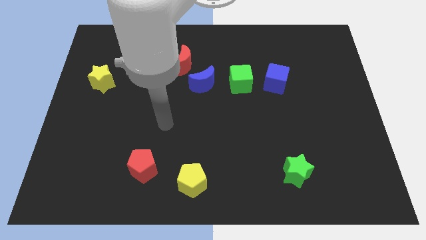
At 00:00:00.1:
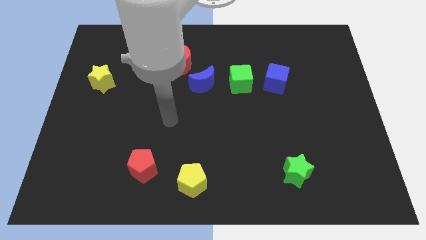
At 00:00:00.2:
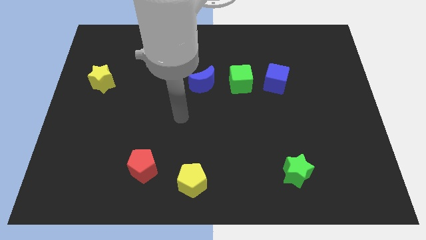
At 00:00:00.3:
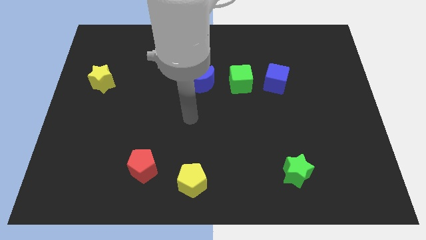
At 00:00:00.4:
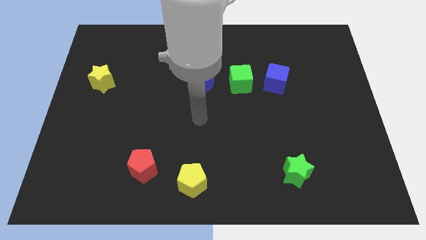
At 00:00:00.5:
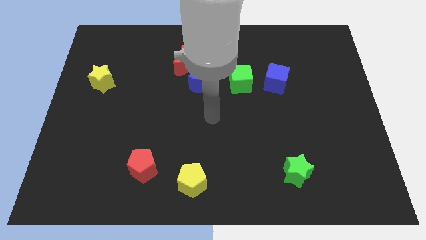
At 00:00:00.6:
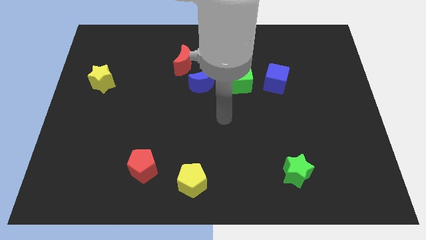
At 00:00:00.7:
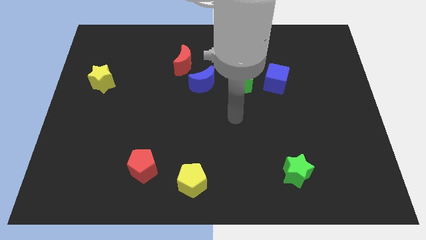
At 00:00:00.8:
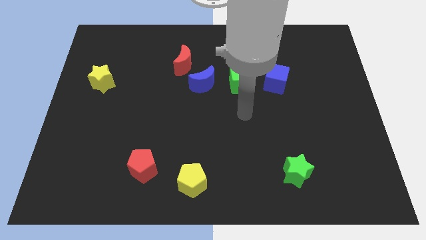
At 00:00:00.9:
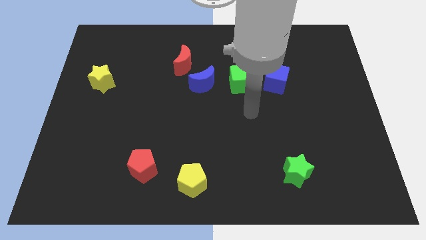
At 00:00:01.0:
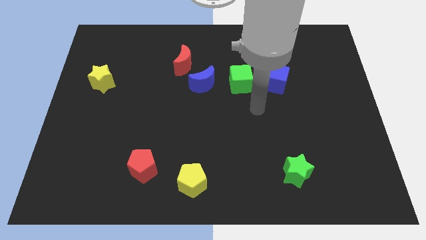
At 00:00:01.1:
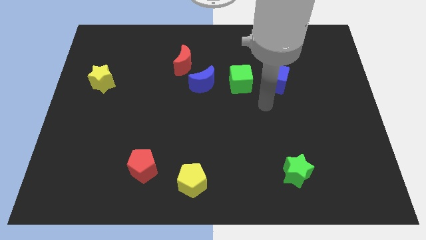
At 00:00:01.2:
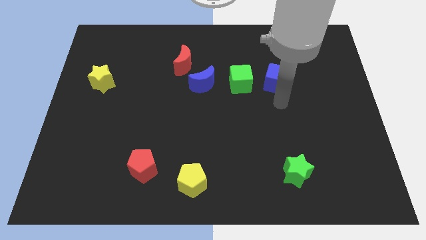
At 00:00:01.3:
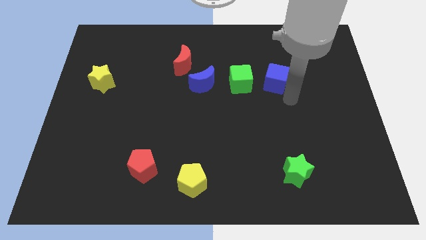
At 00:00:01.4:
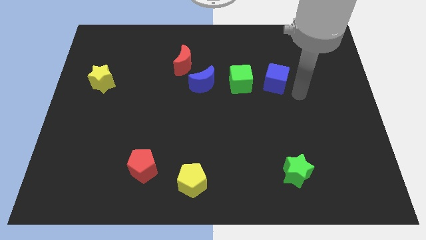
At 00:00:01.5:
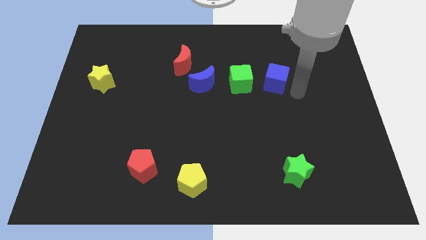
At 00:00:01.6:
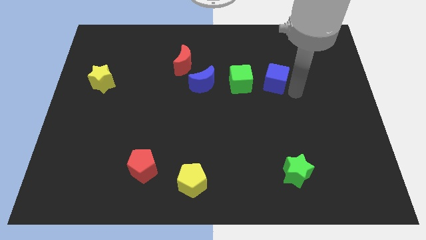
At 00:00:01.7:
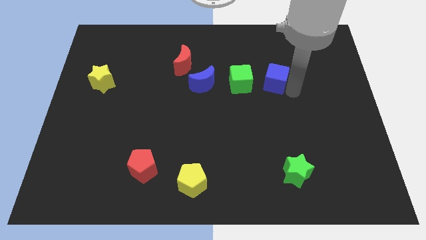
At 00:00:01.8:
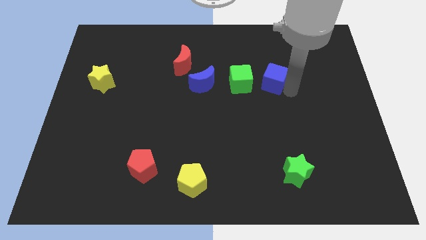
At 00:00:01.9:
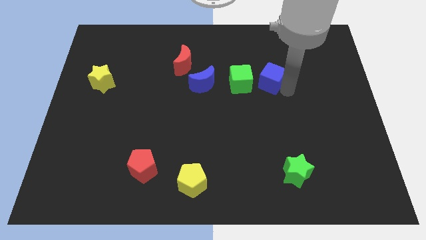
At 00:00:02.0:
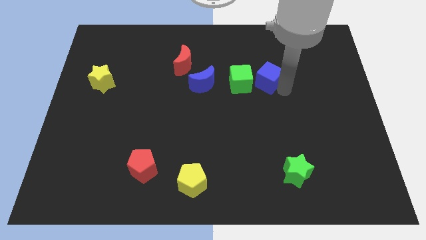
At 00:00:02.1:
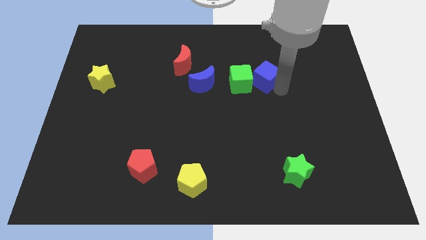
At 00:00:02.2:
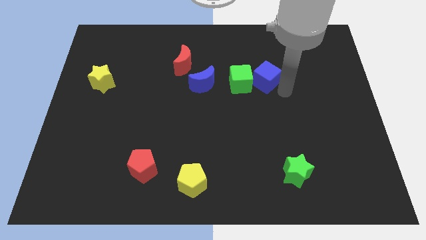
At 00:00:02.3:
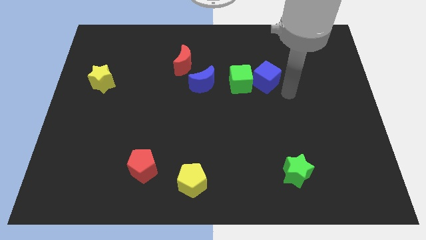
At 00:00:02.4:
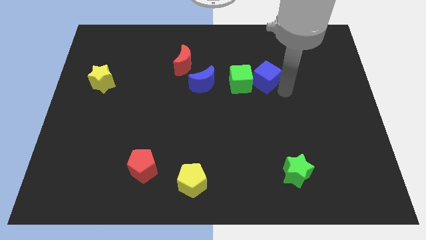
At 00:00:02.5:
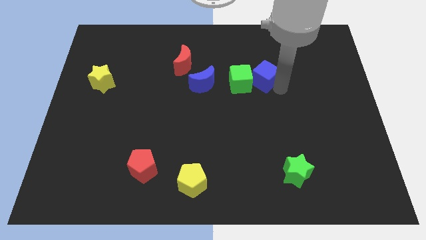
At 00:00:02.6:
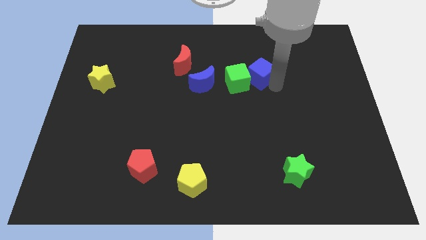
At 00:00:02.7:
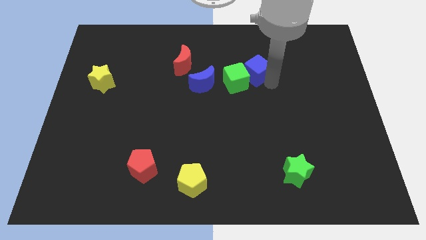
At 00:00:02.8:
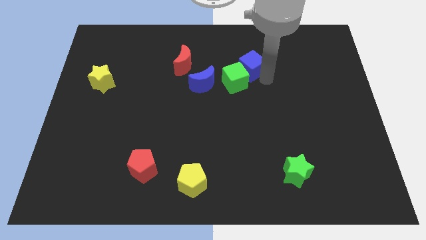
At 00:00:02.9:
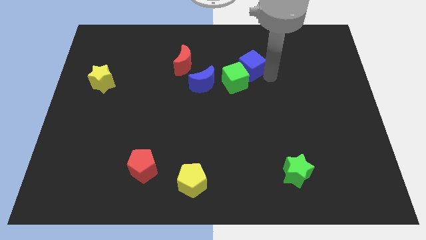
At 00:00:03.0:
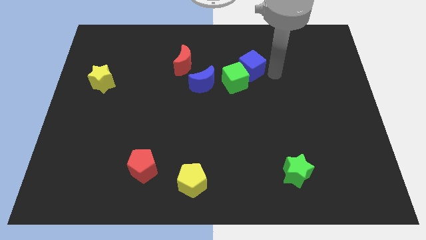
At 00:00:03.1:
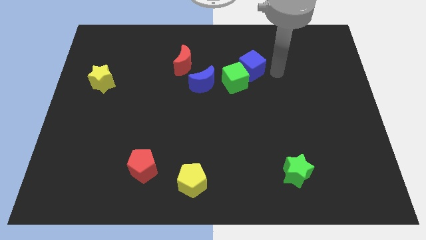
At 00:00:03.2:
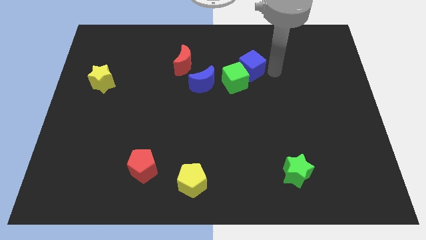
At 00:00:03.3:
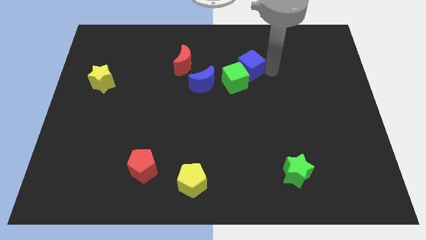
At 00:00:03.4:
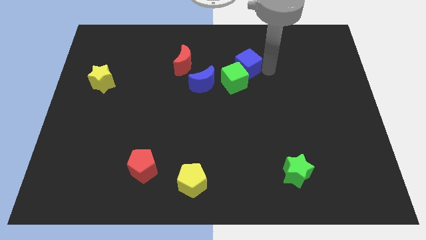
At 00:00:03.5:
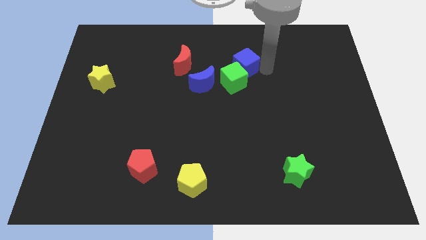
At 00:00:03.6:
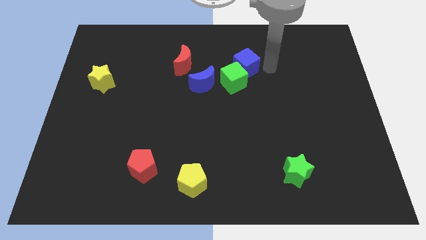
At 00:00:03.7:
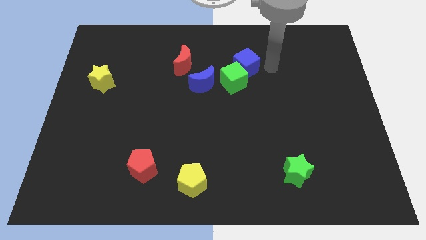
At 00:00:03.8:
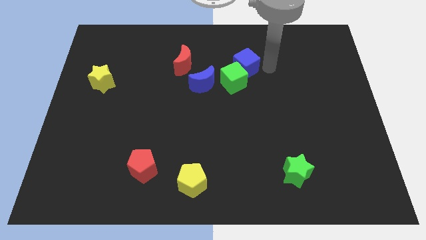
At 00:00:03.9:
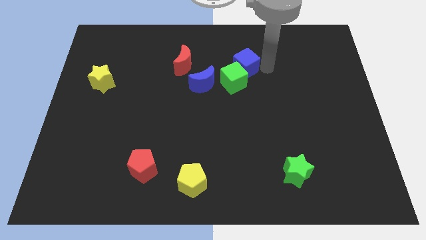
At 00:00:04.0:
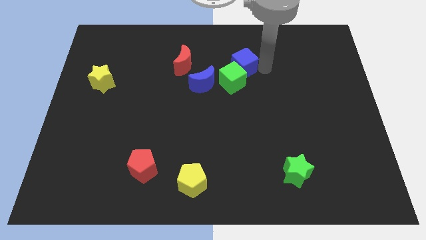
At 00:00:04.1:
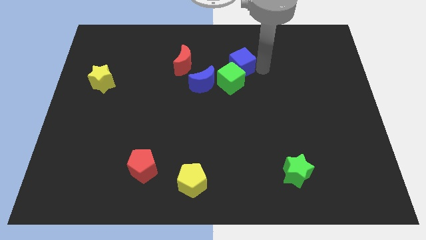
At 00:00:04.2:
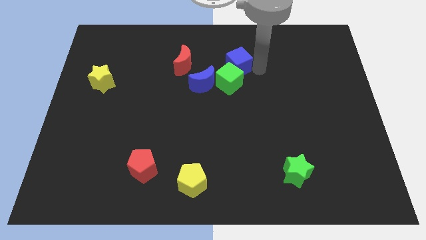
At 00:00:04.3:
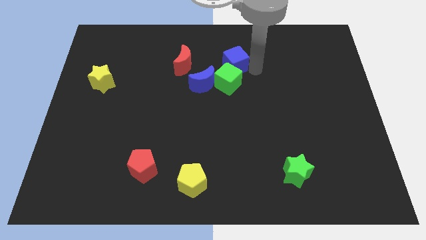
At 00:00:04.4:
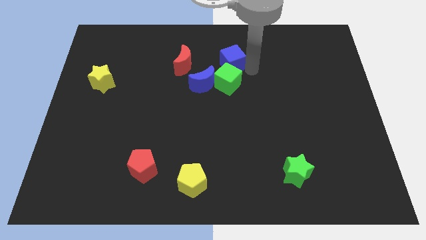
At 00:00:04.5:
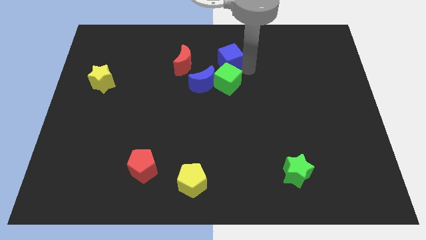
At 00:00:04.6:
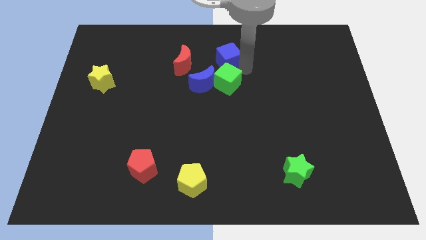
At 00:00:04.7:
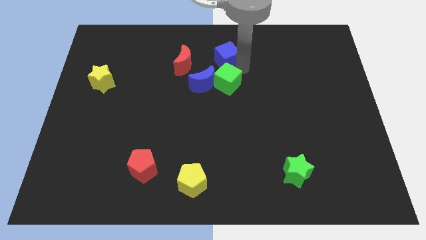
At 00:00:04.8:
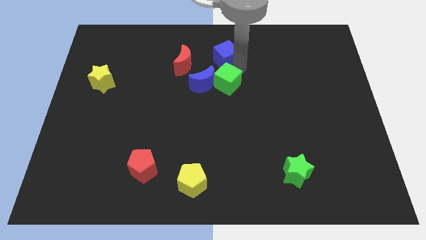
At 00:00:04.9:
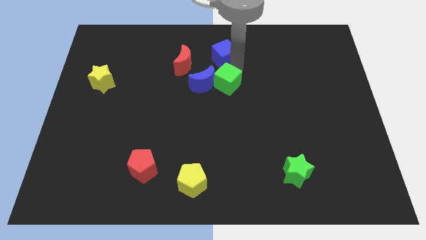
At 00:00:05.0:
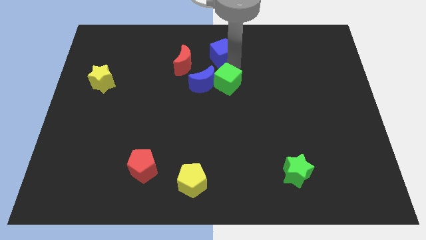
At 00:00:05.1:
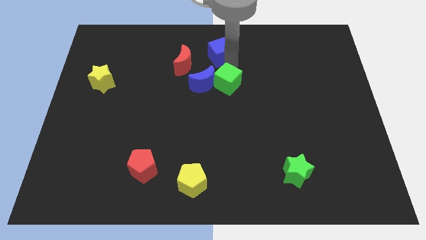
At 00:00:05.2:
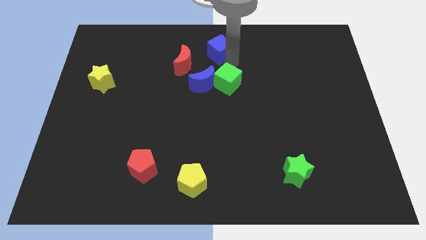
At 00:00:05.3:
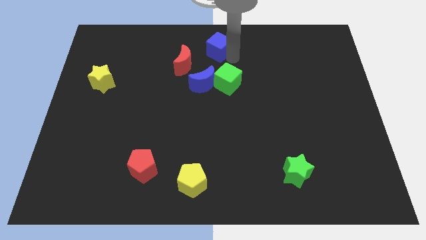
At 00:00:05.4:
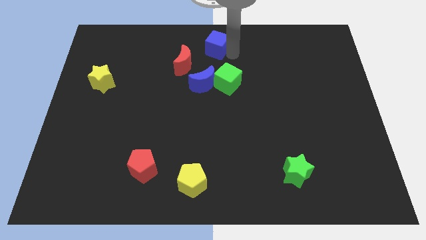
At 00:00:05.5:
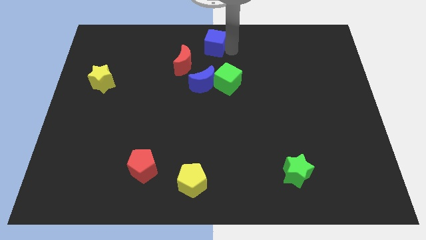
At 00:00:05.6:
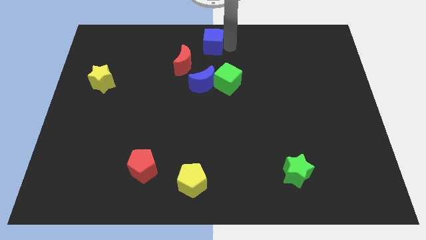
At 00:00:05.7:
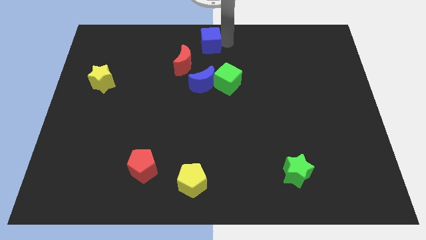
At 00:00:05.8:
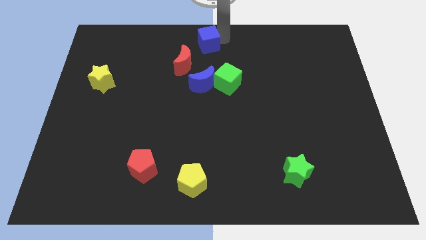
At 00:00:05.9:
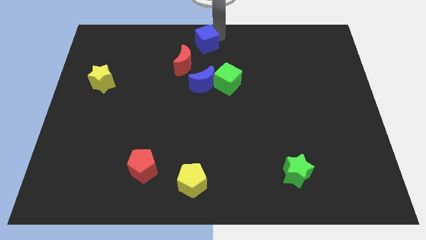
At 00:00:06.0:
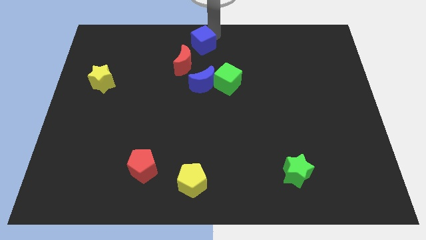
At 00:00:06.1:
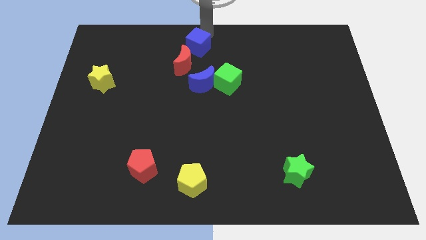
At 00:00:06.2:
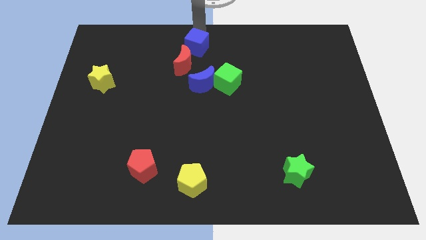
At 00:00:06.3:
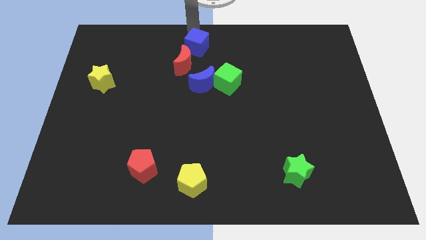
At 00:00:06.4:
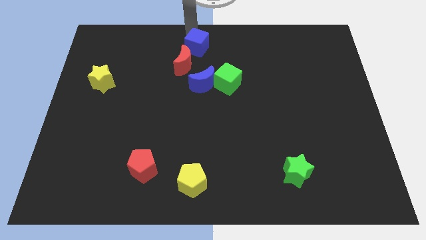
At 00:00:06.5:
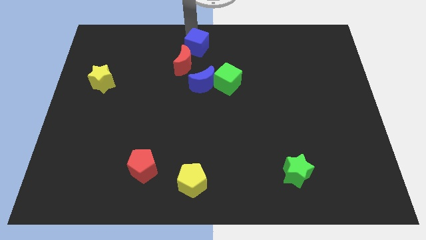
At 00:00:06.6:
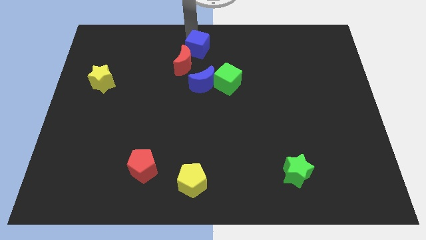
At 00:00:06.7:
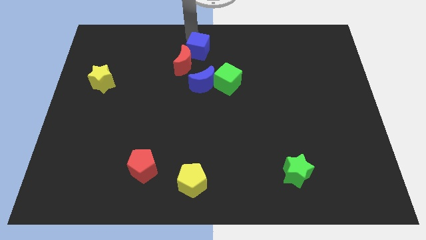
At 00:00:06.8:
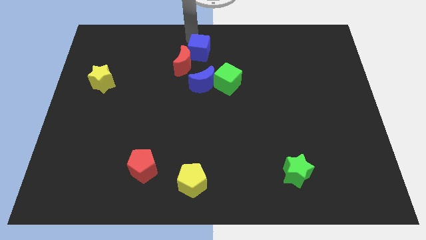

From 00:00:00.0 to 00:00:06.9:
slide the blue cube next to the red moon
